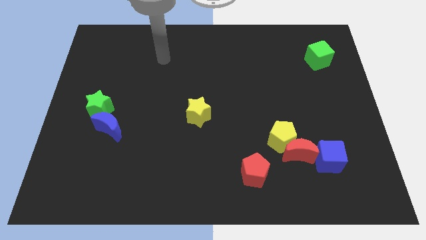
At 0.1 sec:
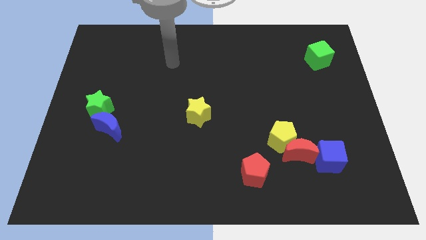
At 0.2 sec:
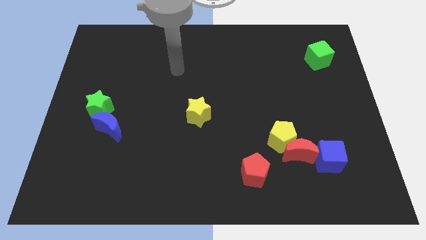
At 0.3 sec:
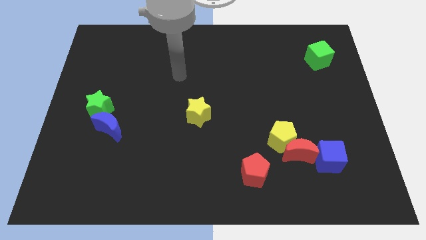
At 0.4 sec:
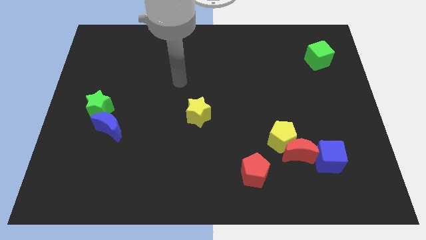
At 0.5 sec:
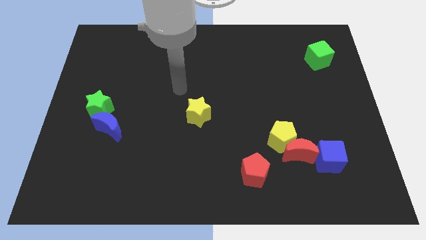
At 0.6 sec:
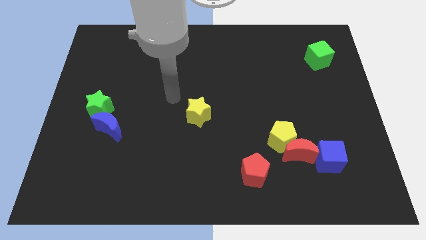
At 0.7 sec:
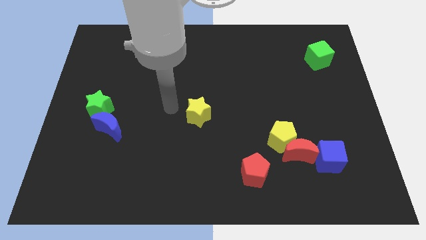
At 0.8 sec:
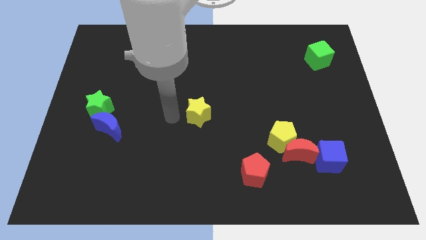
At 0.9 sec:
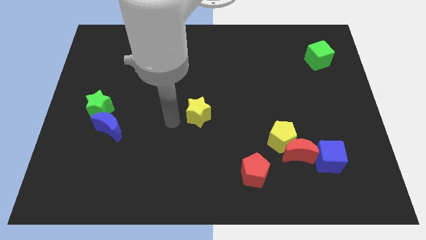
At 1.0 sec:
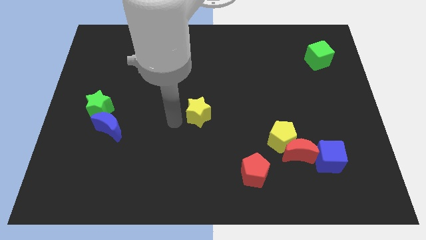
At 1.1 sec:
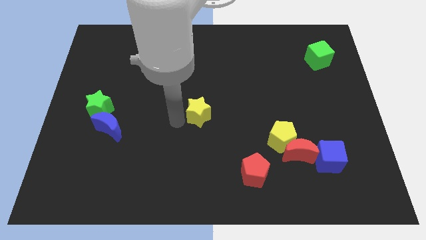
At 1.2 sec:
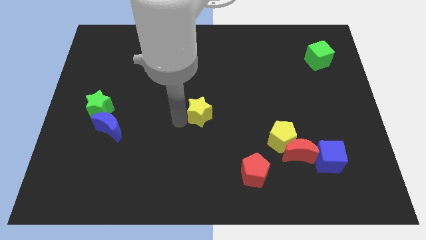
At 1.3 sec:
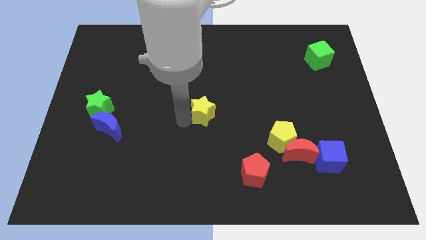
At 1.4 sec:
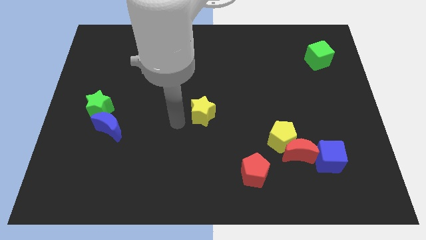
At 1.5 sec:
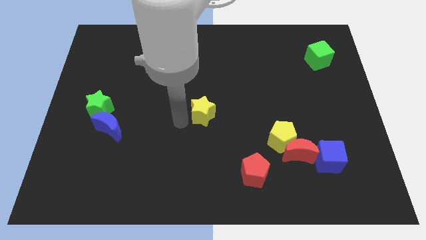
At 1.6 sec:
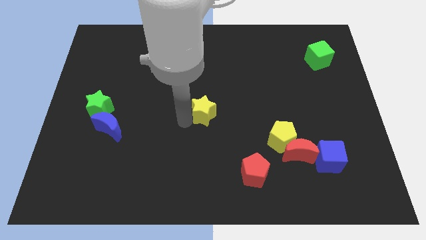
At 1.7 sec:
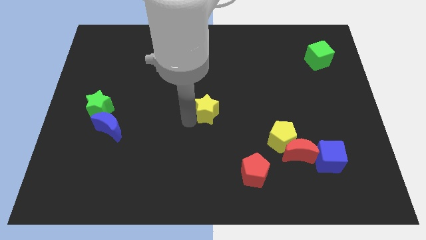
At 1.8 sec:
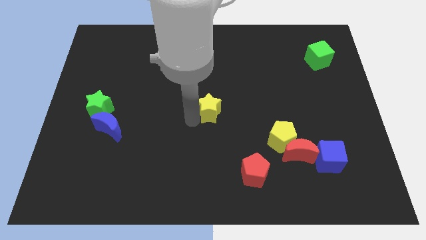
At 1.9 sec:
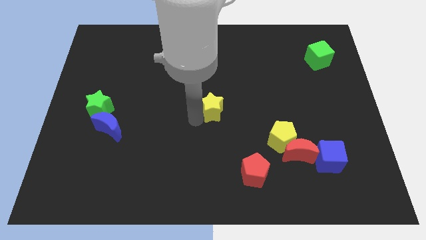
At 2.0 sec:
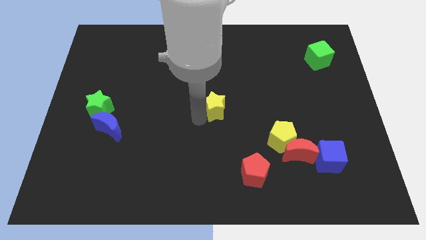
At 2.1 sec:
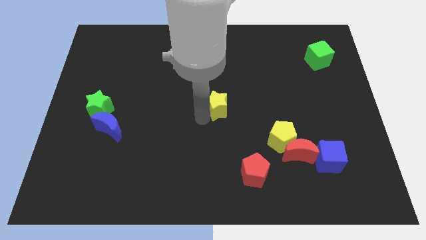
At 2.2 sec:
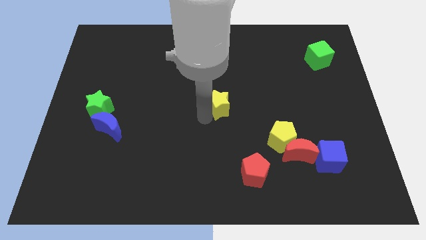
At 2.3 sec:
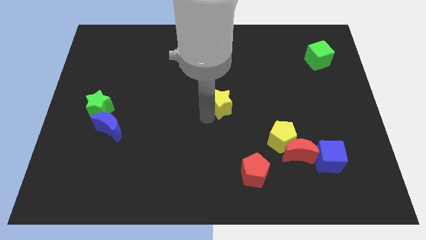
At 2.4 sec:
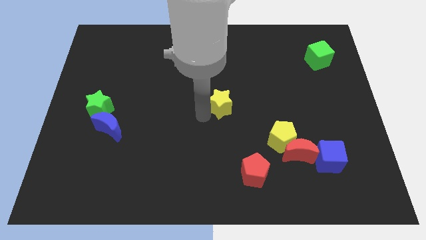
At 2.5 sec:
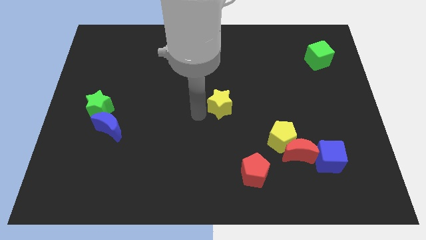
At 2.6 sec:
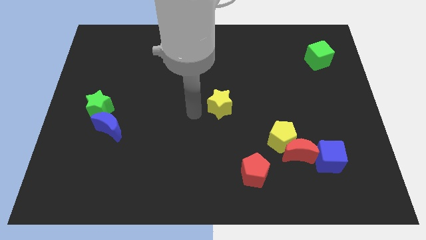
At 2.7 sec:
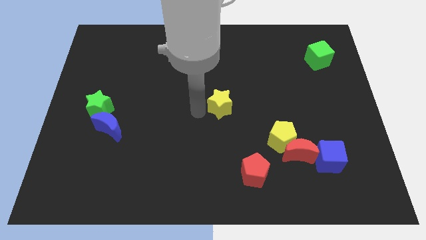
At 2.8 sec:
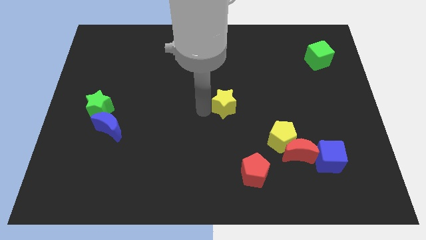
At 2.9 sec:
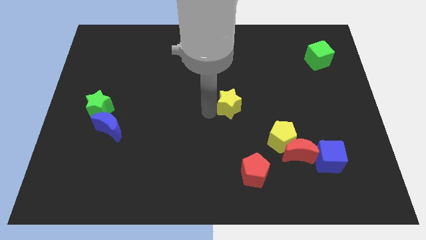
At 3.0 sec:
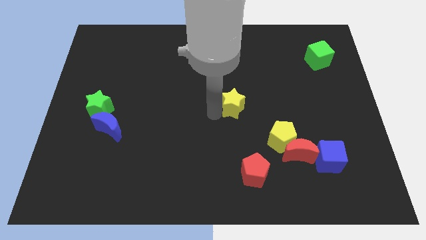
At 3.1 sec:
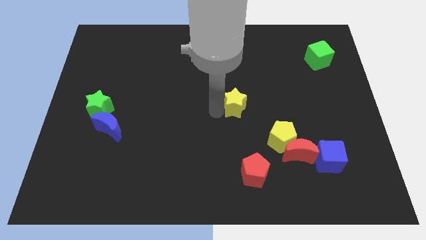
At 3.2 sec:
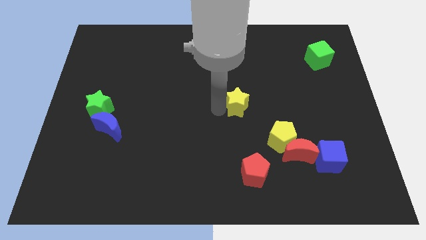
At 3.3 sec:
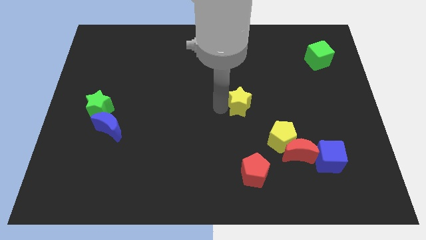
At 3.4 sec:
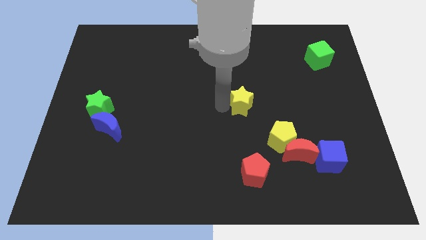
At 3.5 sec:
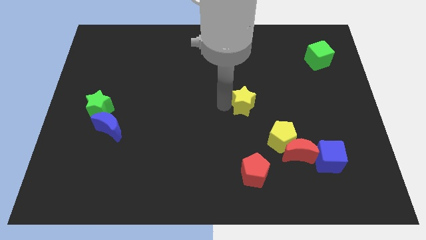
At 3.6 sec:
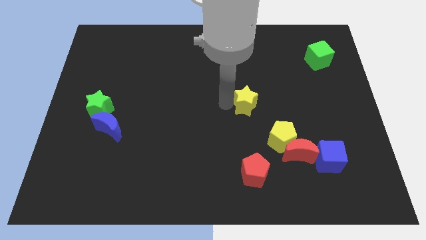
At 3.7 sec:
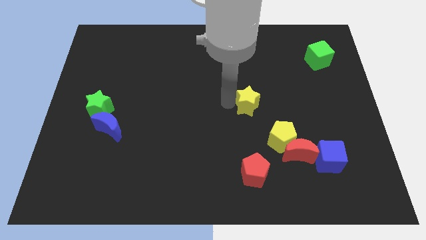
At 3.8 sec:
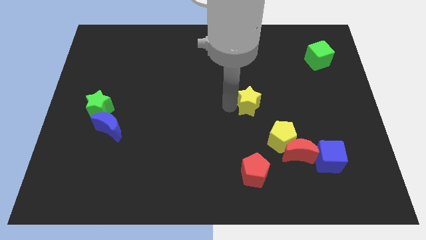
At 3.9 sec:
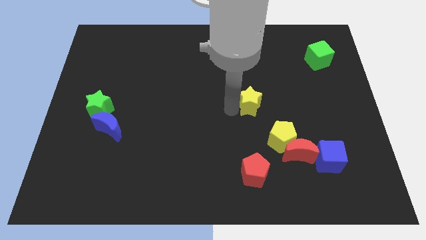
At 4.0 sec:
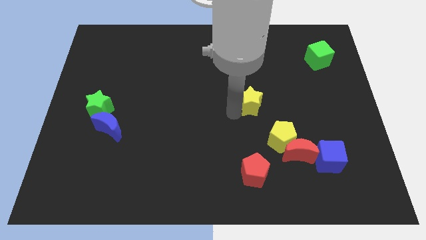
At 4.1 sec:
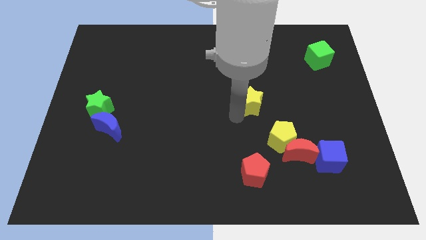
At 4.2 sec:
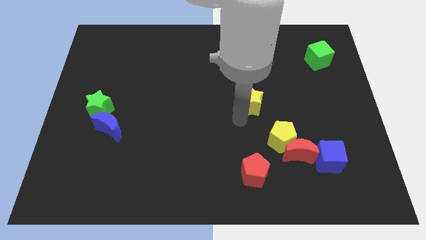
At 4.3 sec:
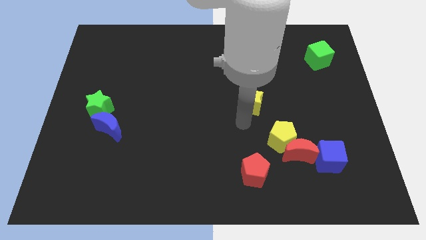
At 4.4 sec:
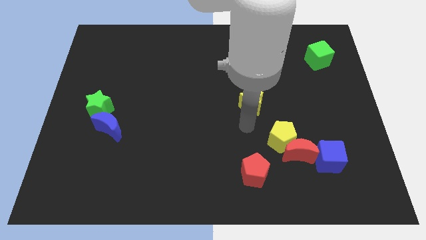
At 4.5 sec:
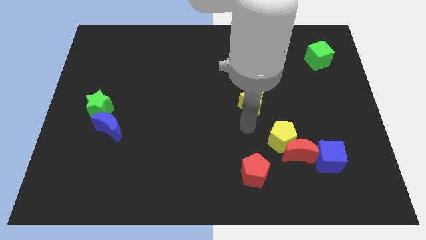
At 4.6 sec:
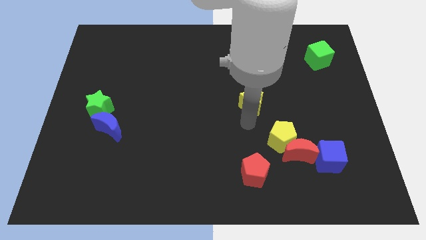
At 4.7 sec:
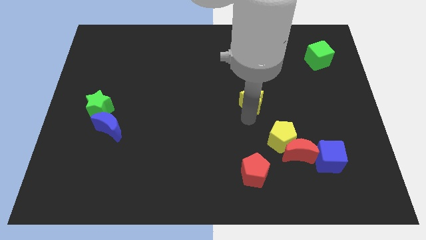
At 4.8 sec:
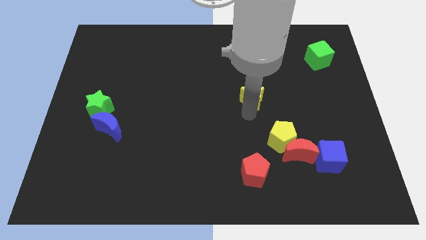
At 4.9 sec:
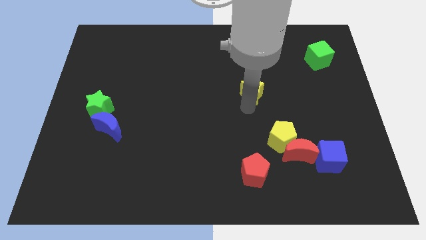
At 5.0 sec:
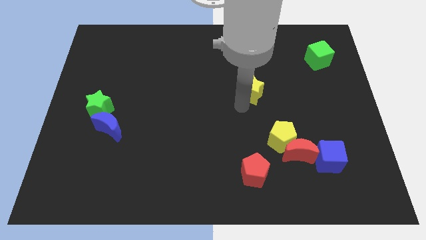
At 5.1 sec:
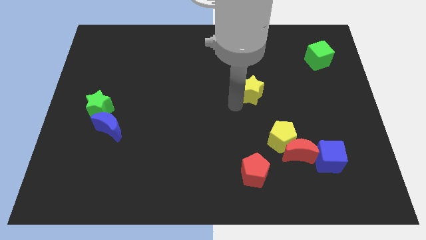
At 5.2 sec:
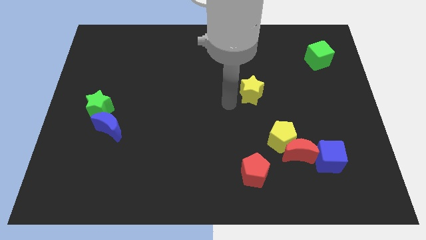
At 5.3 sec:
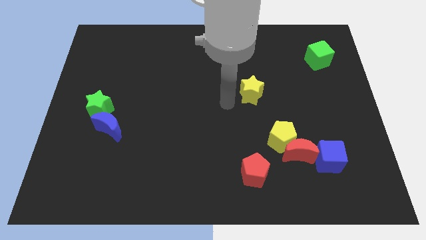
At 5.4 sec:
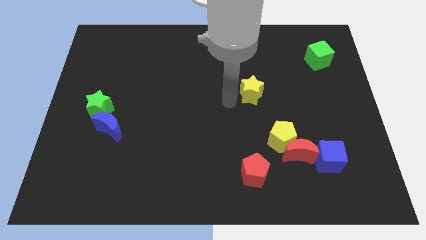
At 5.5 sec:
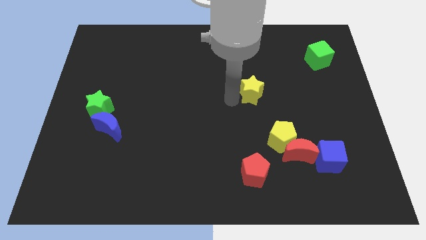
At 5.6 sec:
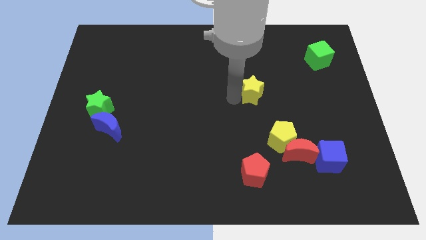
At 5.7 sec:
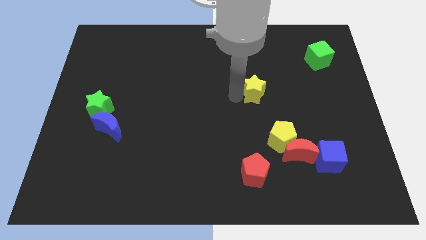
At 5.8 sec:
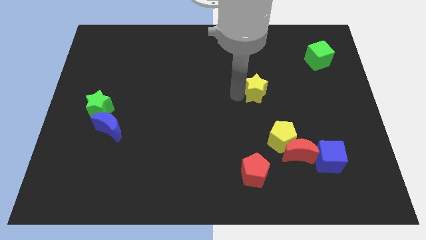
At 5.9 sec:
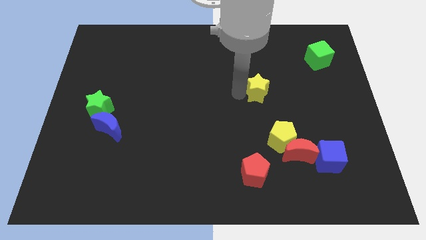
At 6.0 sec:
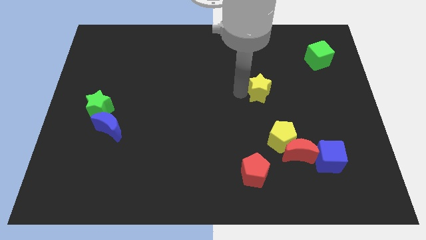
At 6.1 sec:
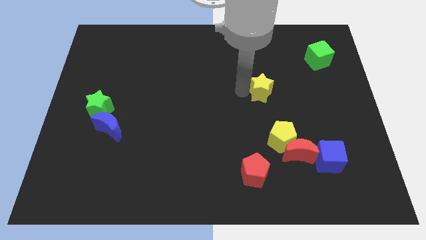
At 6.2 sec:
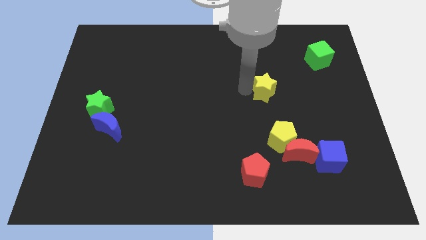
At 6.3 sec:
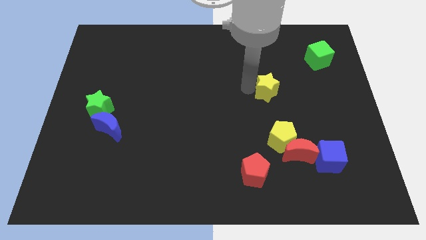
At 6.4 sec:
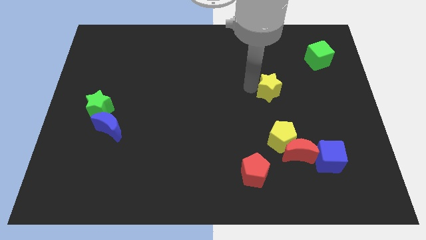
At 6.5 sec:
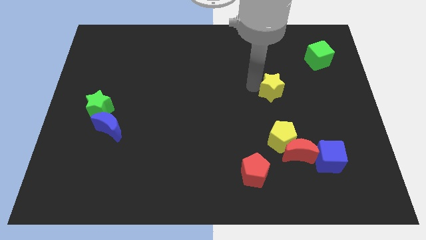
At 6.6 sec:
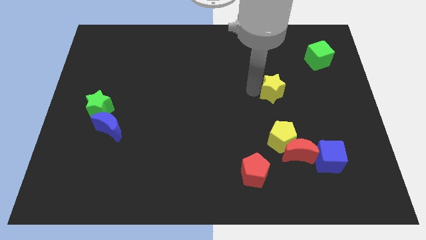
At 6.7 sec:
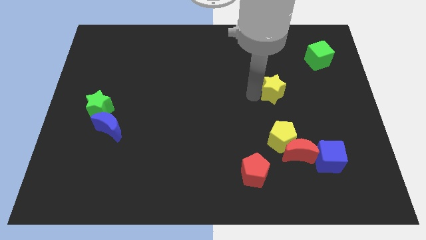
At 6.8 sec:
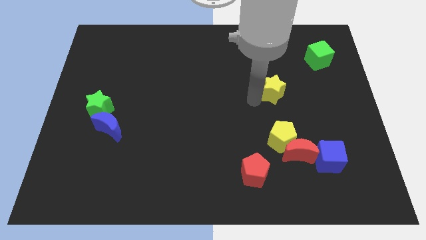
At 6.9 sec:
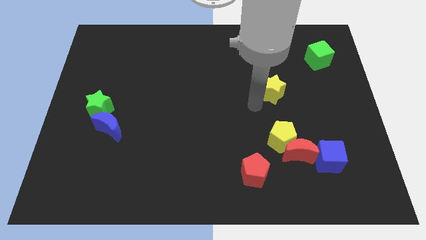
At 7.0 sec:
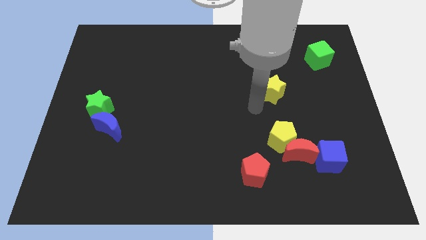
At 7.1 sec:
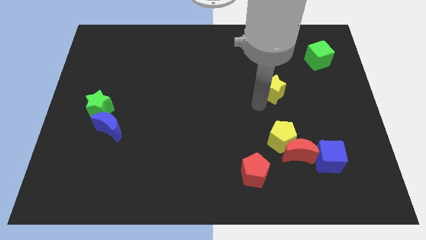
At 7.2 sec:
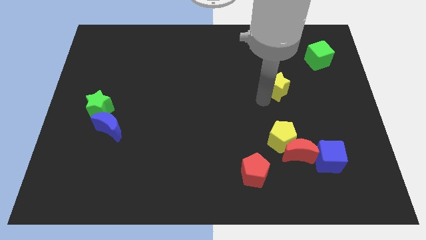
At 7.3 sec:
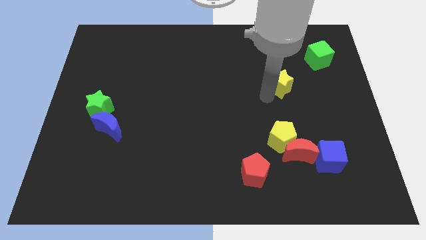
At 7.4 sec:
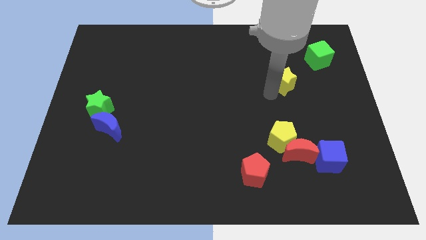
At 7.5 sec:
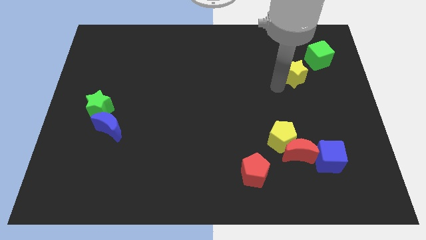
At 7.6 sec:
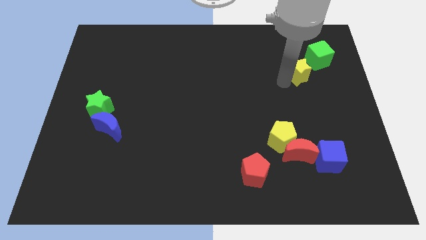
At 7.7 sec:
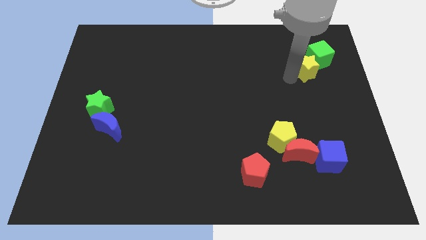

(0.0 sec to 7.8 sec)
put the yellow star next to the green cube
